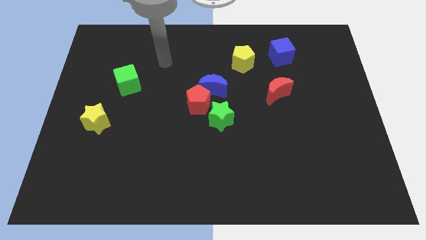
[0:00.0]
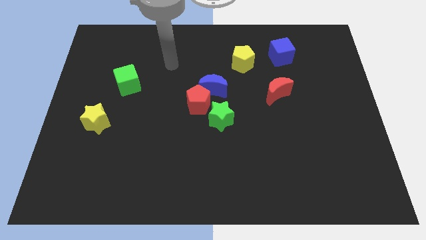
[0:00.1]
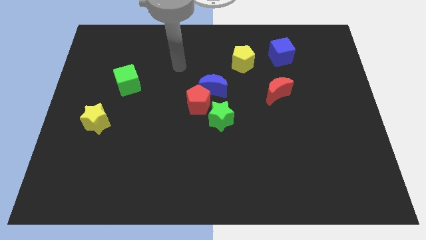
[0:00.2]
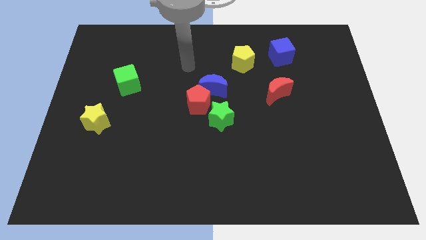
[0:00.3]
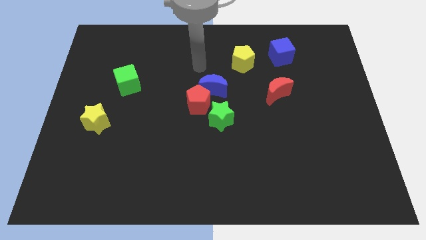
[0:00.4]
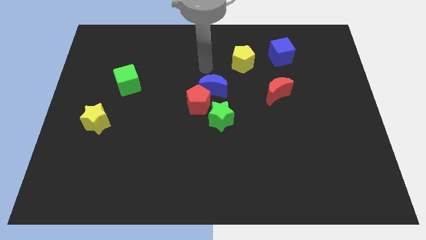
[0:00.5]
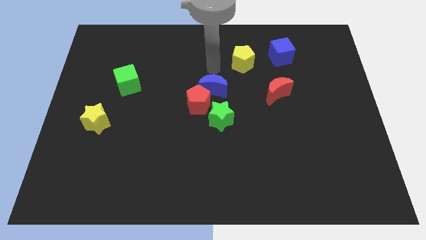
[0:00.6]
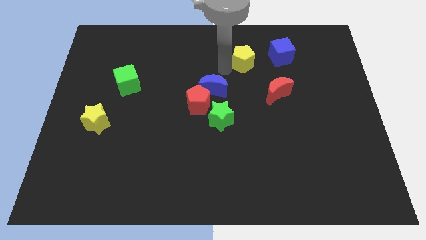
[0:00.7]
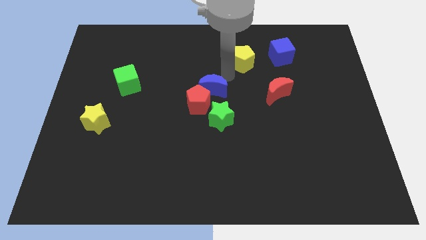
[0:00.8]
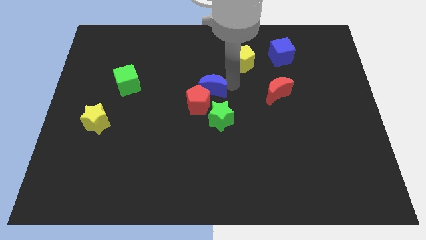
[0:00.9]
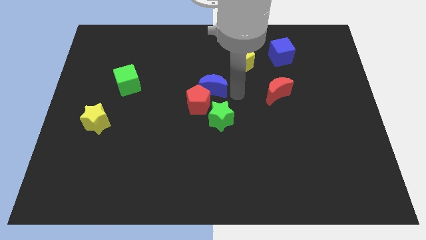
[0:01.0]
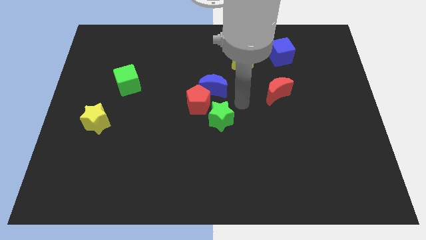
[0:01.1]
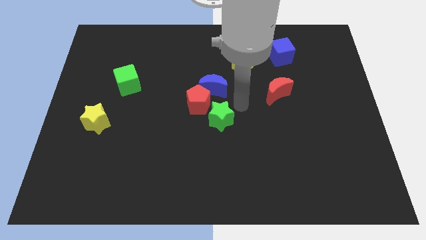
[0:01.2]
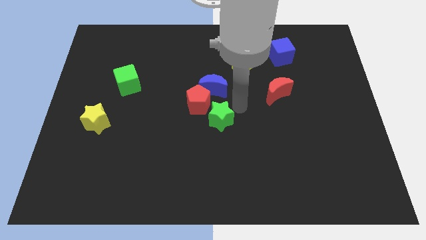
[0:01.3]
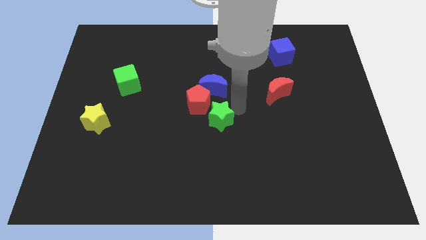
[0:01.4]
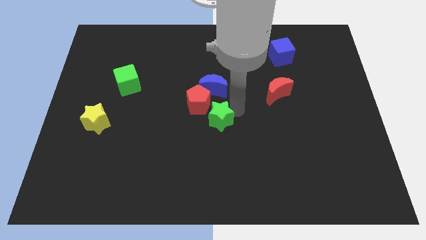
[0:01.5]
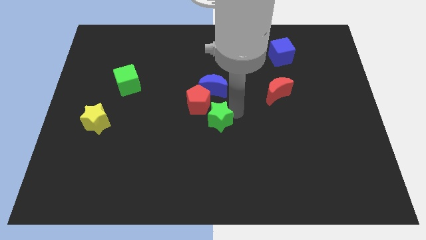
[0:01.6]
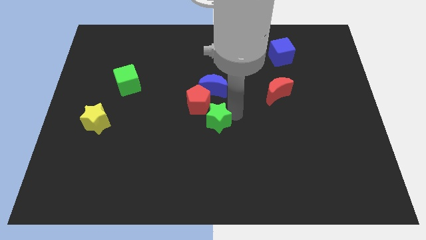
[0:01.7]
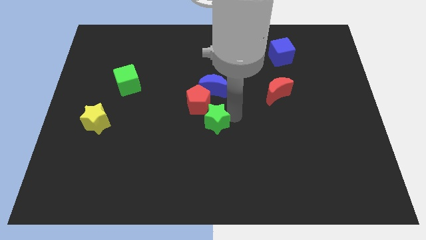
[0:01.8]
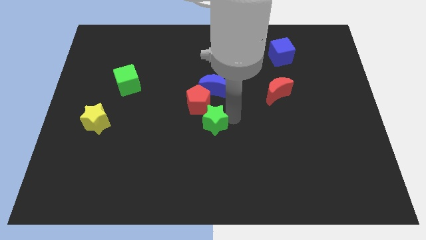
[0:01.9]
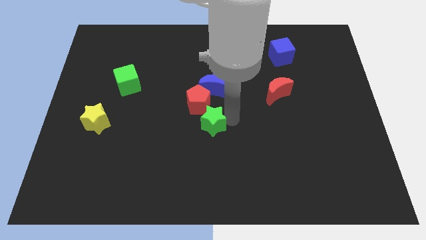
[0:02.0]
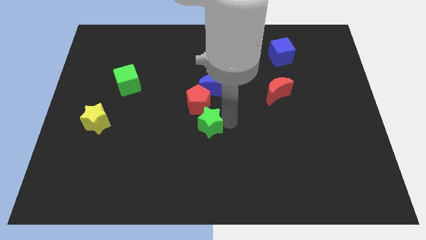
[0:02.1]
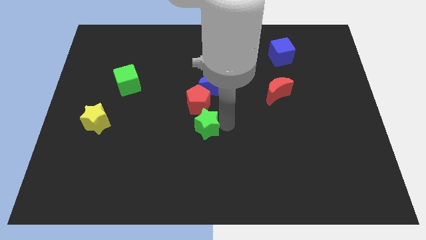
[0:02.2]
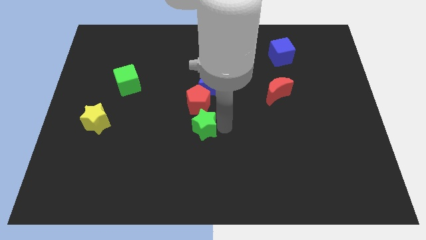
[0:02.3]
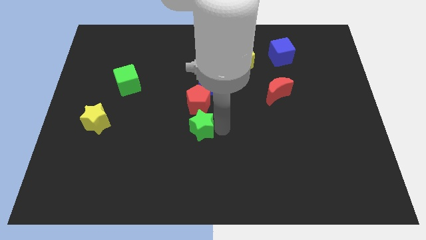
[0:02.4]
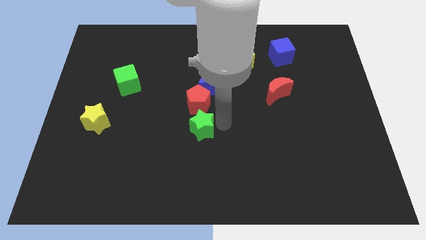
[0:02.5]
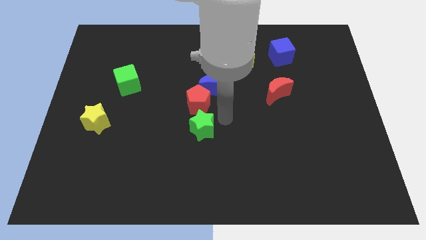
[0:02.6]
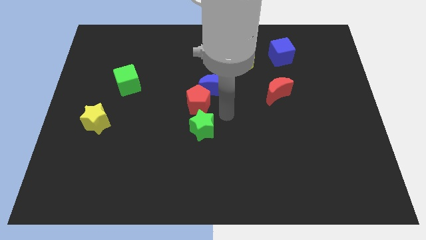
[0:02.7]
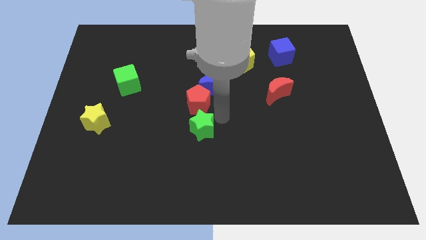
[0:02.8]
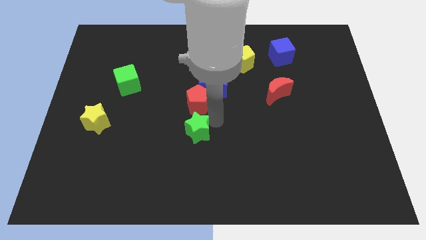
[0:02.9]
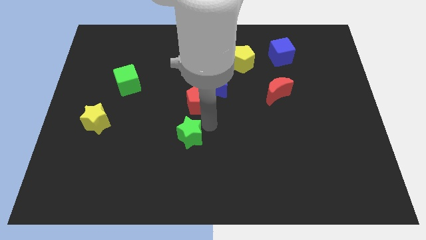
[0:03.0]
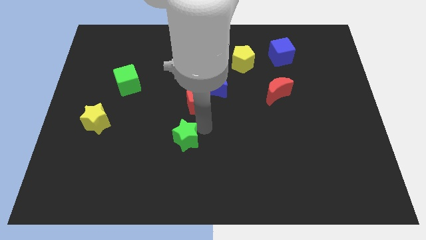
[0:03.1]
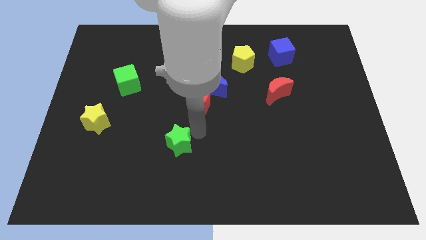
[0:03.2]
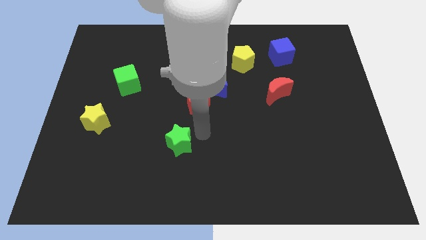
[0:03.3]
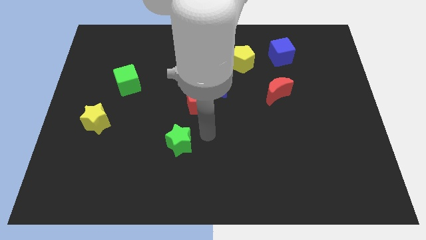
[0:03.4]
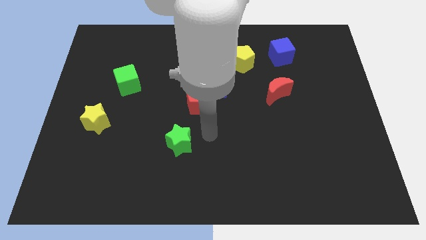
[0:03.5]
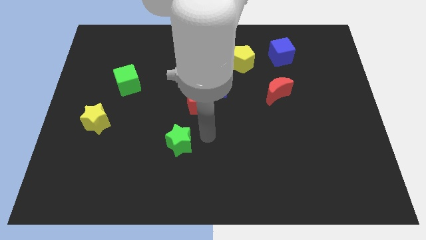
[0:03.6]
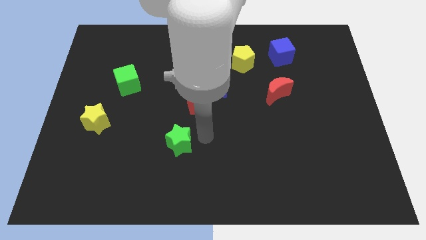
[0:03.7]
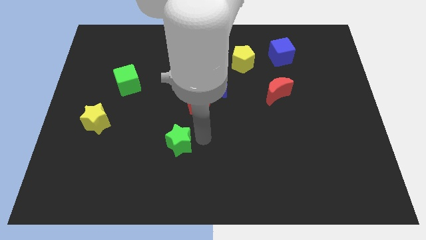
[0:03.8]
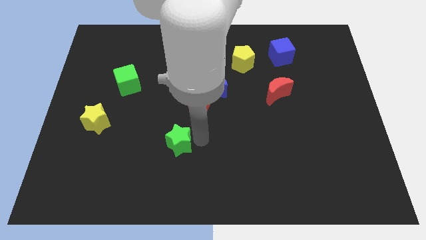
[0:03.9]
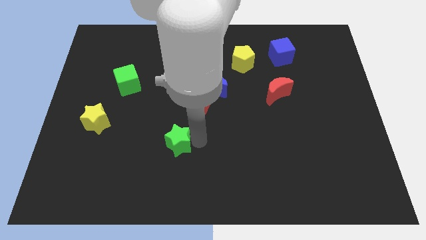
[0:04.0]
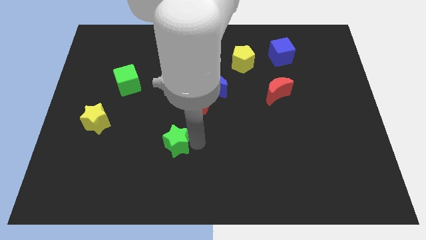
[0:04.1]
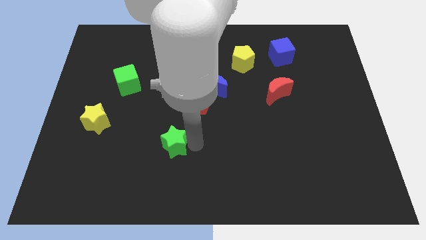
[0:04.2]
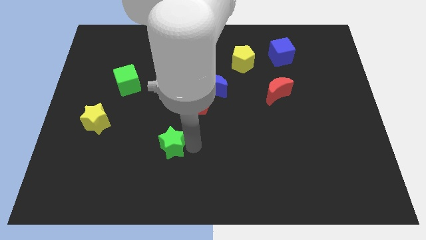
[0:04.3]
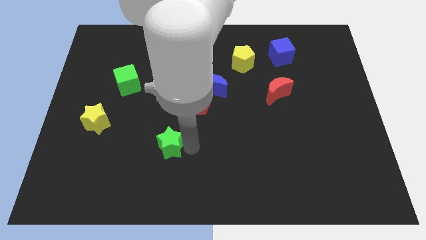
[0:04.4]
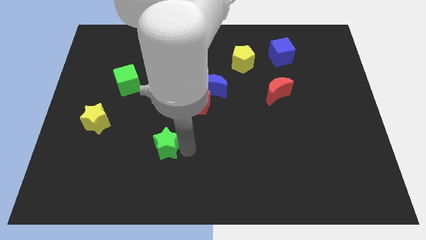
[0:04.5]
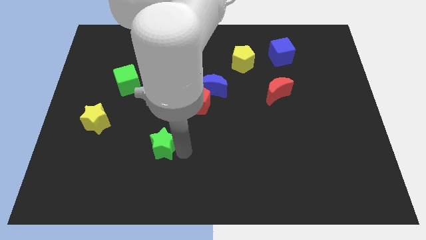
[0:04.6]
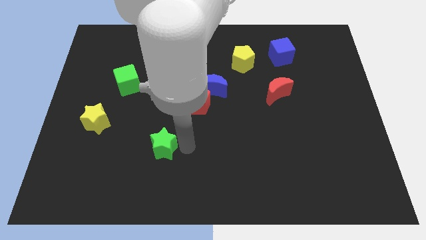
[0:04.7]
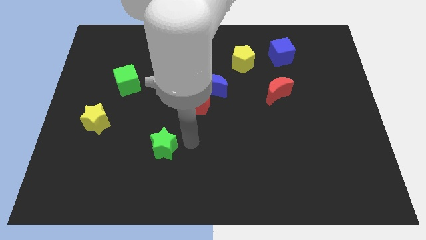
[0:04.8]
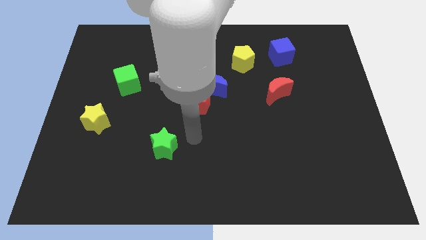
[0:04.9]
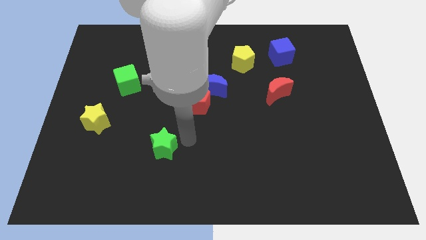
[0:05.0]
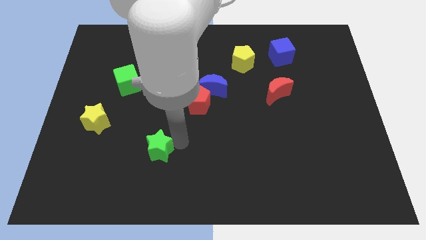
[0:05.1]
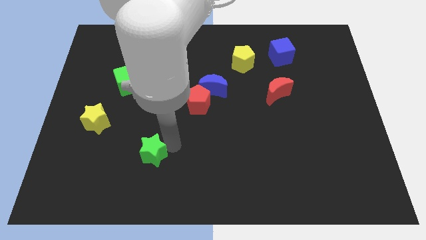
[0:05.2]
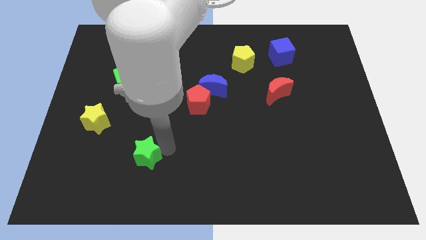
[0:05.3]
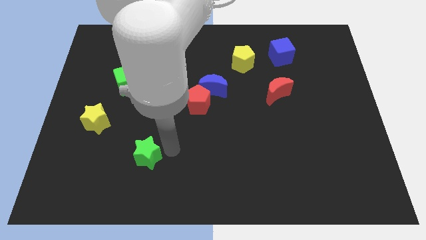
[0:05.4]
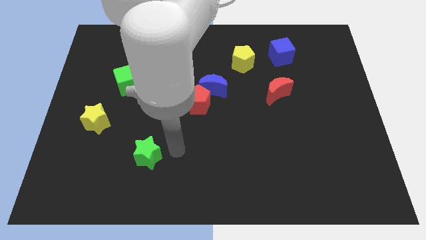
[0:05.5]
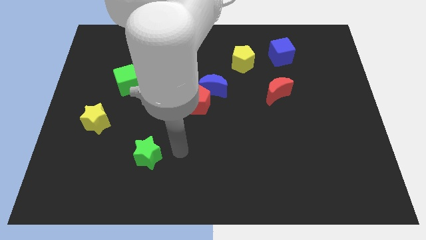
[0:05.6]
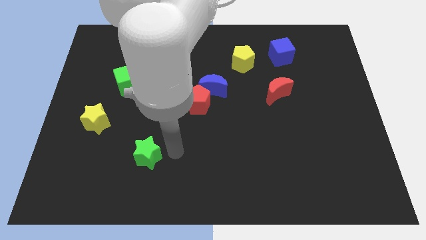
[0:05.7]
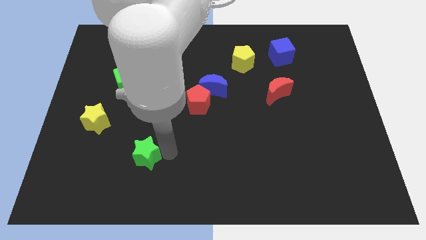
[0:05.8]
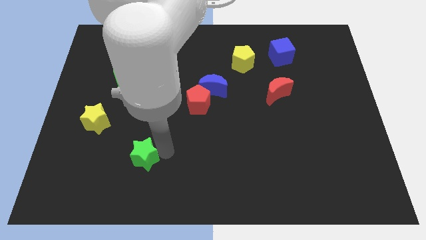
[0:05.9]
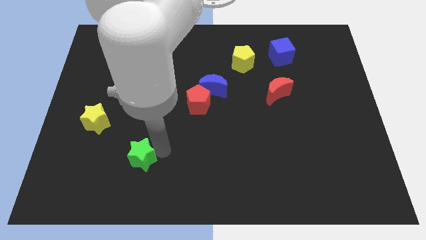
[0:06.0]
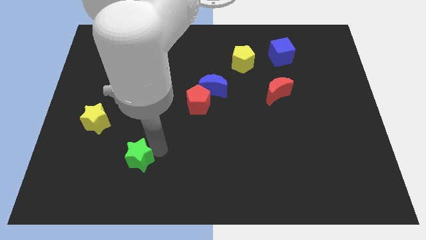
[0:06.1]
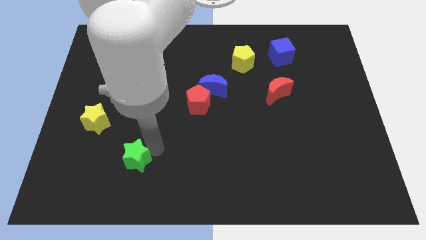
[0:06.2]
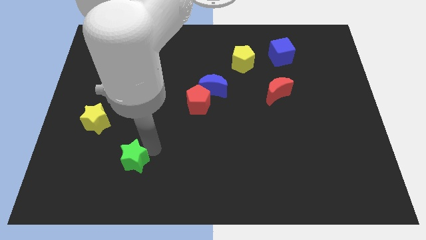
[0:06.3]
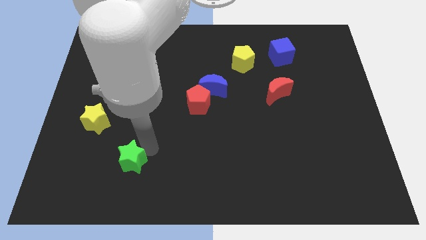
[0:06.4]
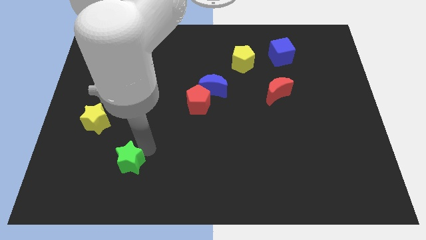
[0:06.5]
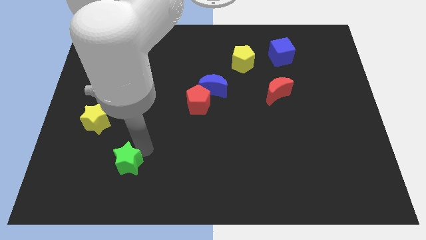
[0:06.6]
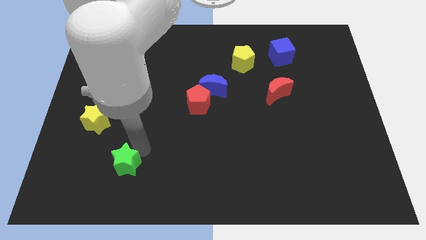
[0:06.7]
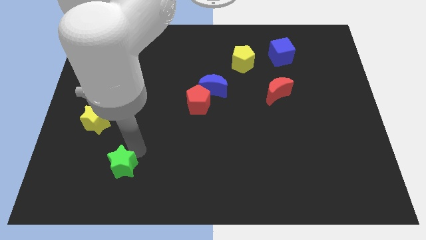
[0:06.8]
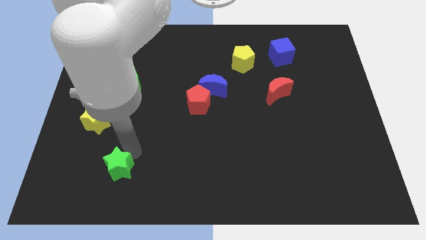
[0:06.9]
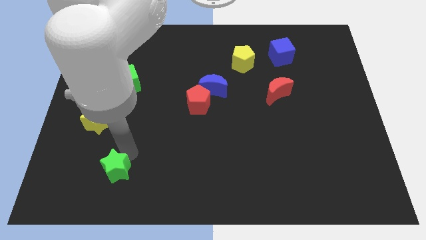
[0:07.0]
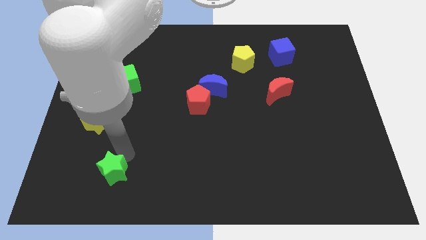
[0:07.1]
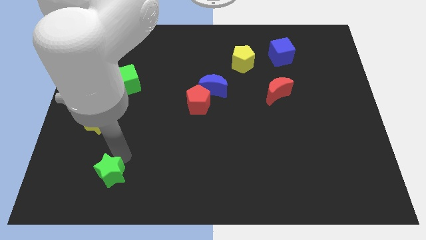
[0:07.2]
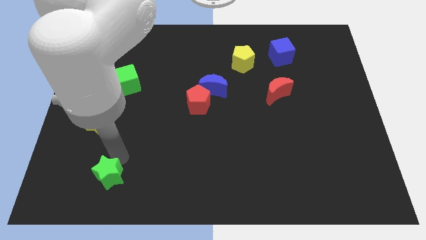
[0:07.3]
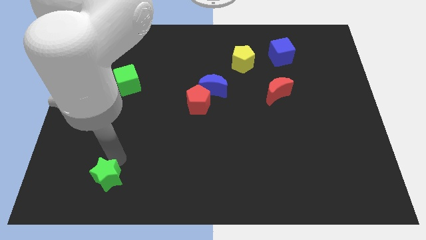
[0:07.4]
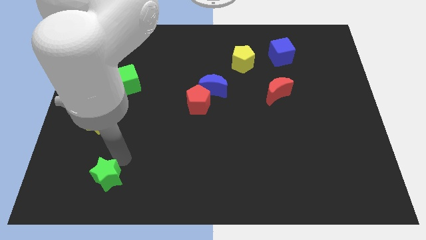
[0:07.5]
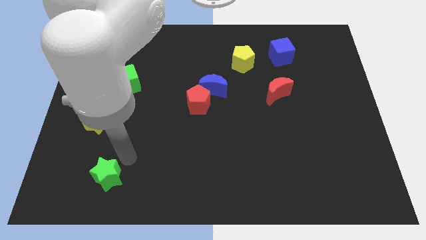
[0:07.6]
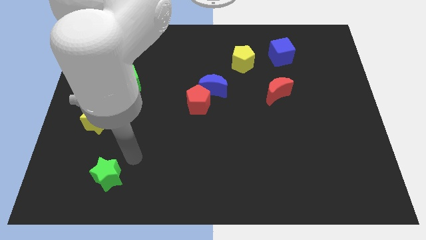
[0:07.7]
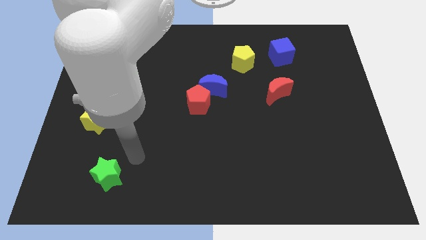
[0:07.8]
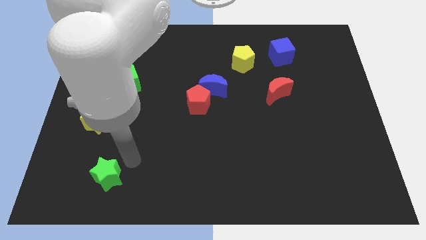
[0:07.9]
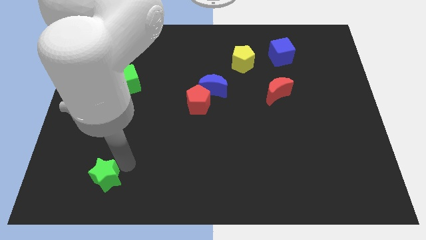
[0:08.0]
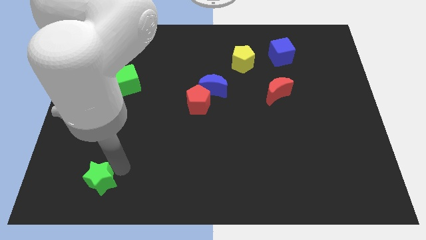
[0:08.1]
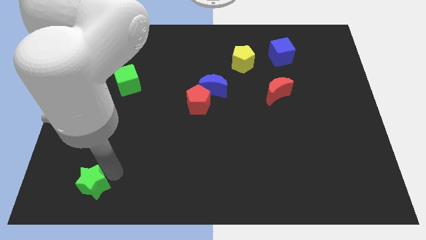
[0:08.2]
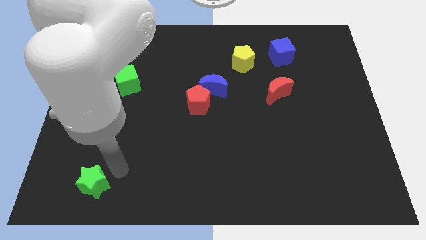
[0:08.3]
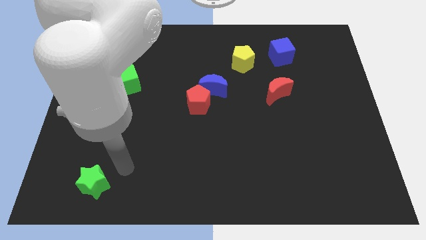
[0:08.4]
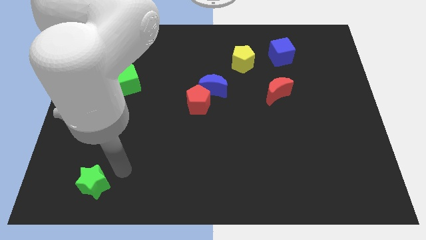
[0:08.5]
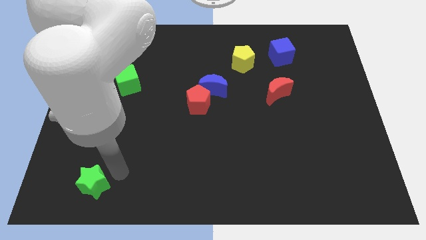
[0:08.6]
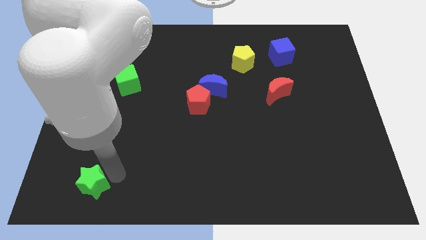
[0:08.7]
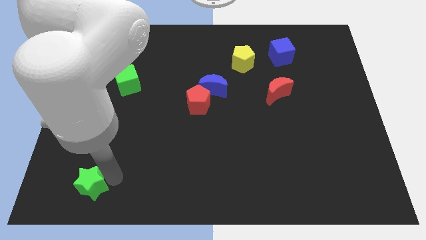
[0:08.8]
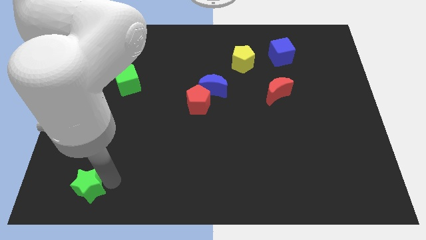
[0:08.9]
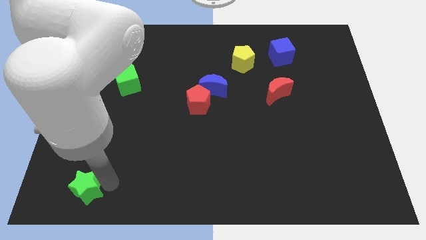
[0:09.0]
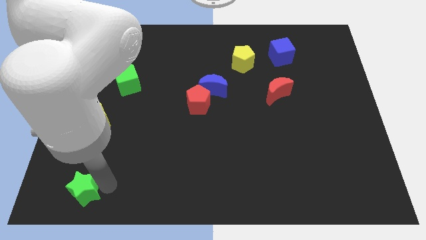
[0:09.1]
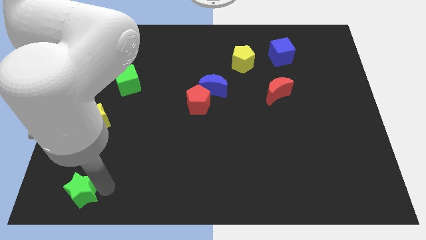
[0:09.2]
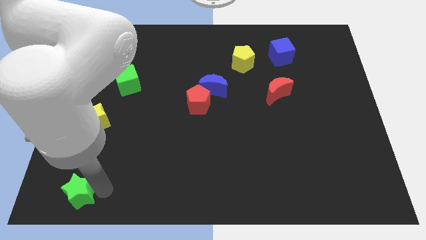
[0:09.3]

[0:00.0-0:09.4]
move the green star to the bottom left corner
